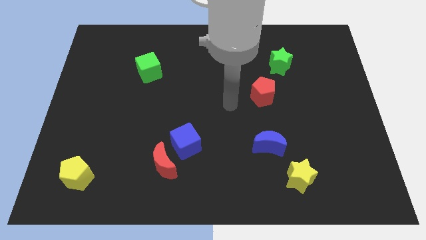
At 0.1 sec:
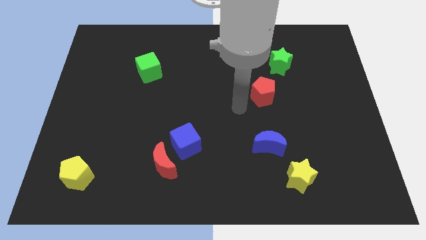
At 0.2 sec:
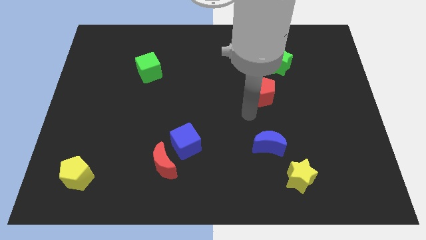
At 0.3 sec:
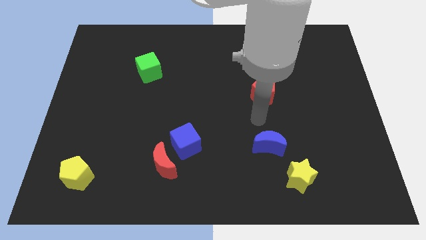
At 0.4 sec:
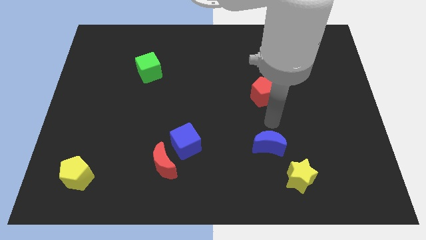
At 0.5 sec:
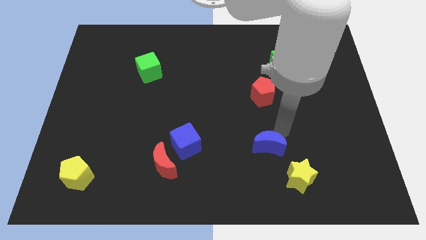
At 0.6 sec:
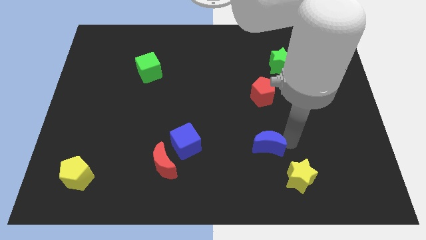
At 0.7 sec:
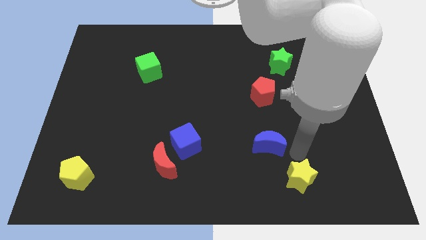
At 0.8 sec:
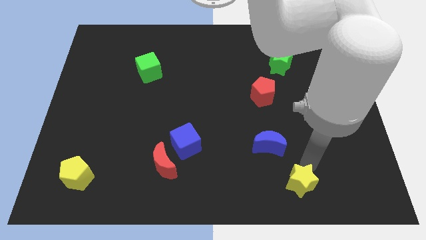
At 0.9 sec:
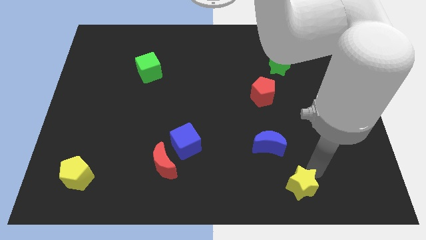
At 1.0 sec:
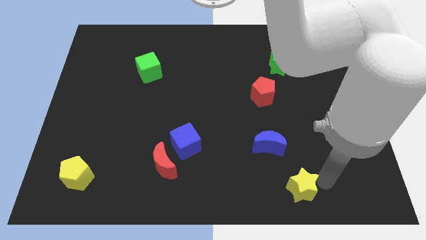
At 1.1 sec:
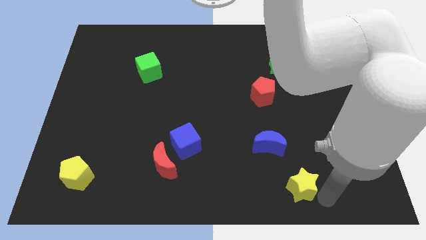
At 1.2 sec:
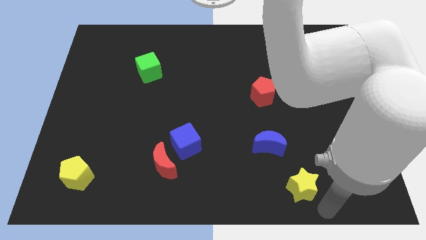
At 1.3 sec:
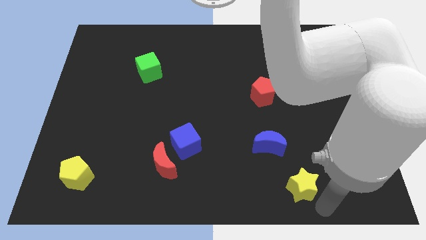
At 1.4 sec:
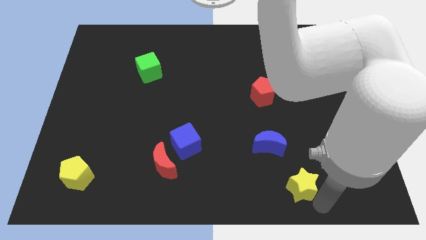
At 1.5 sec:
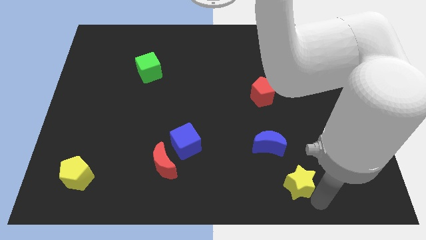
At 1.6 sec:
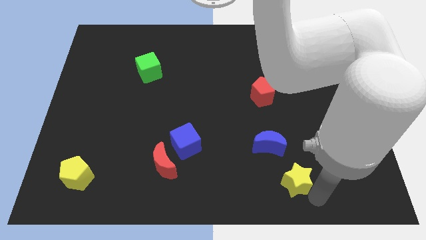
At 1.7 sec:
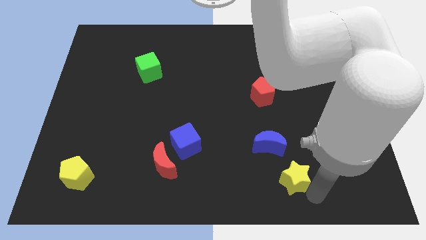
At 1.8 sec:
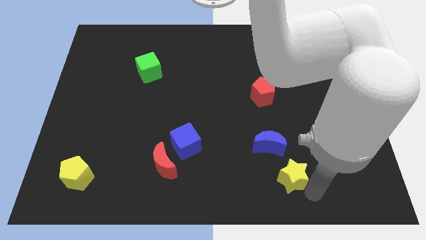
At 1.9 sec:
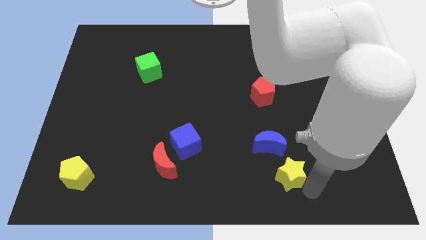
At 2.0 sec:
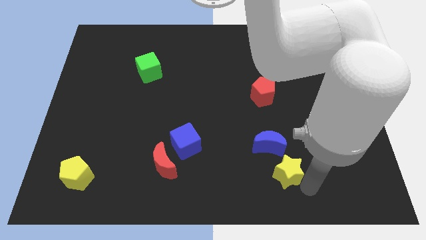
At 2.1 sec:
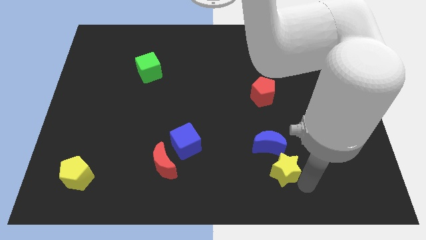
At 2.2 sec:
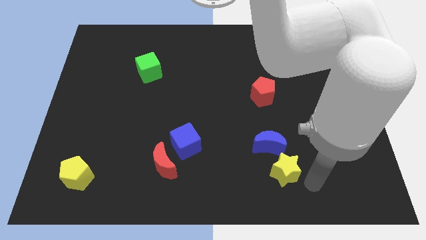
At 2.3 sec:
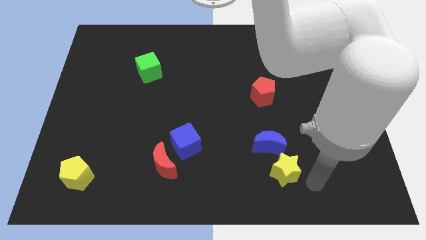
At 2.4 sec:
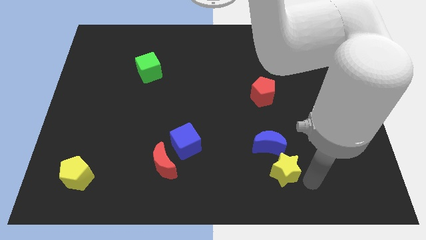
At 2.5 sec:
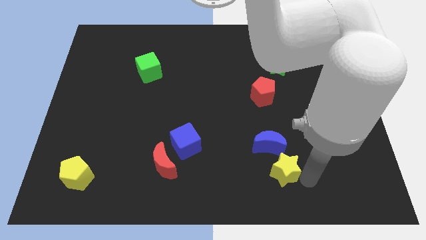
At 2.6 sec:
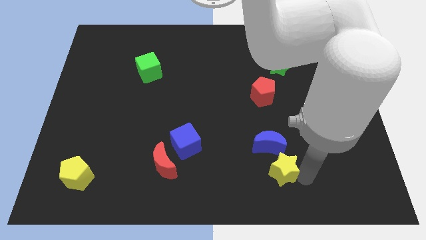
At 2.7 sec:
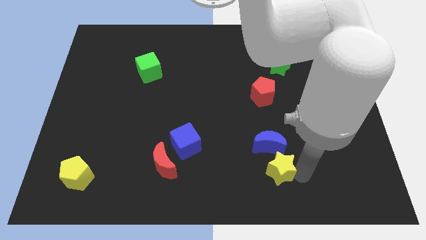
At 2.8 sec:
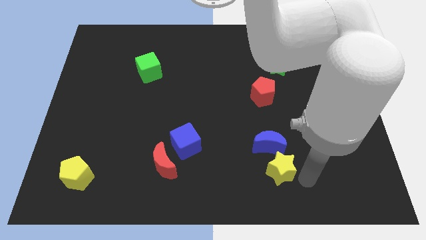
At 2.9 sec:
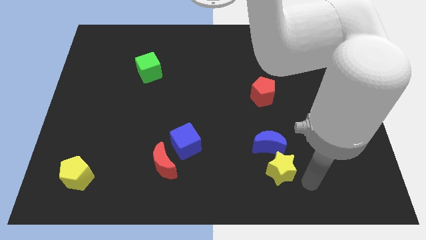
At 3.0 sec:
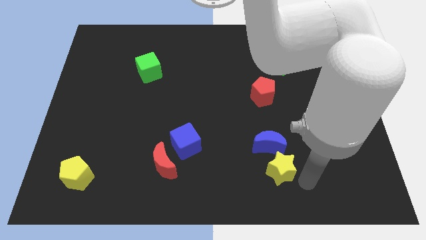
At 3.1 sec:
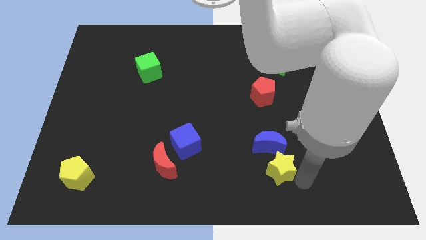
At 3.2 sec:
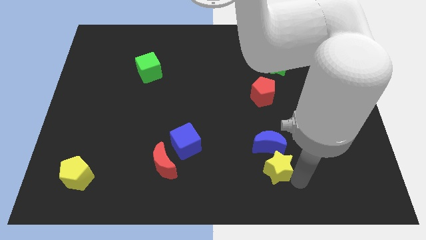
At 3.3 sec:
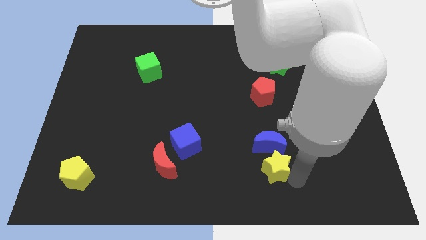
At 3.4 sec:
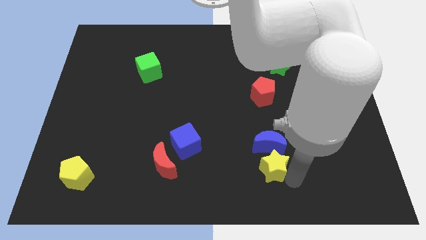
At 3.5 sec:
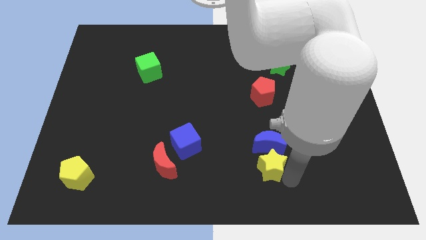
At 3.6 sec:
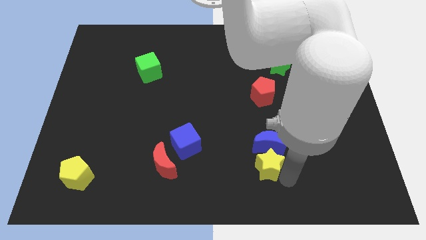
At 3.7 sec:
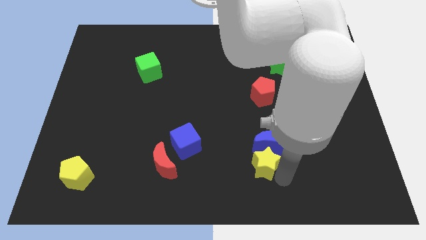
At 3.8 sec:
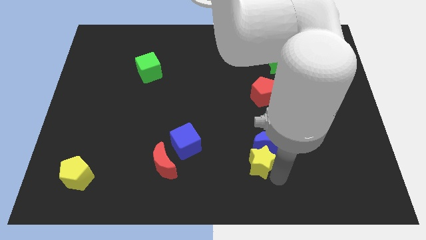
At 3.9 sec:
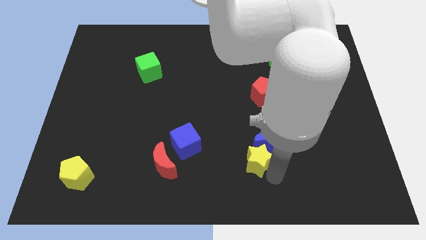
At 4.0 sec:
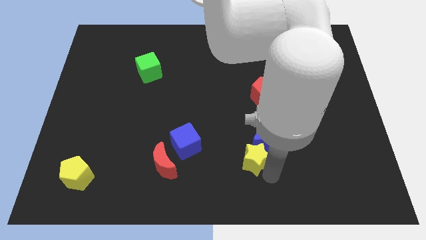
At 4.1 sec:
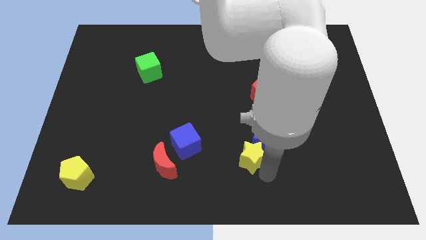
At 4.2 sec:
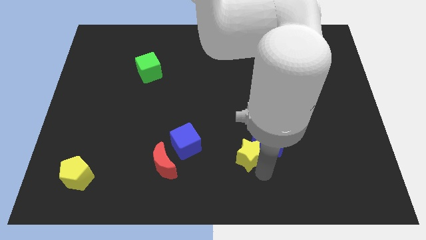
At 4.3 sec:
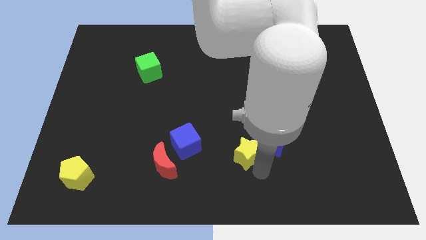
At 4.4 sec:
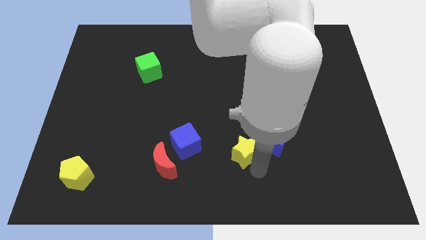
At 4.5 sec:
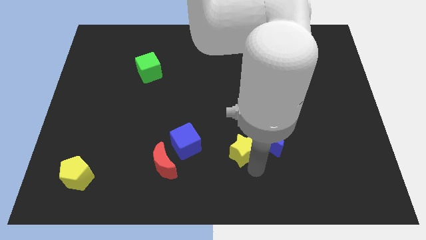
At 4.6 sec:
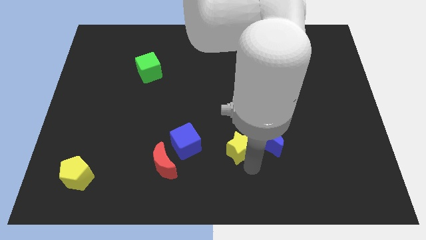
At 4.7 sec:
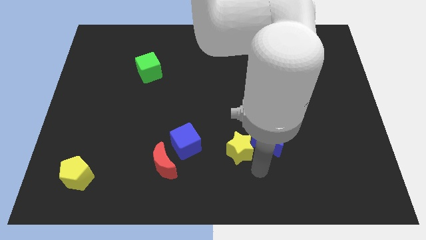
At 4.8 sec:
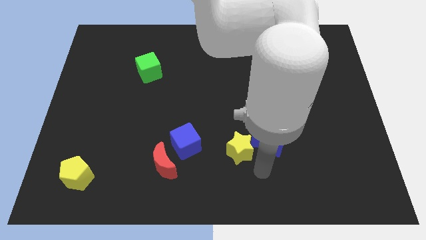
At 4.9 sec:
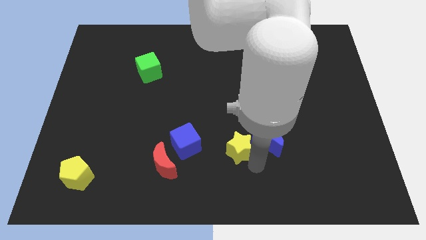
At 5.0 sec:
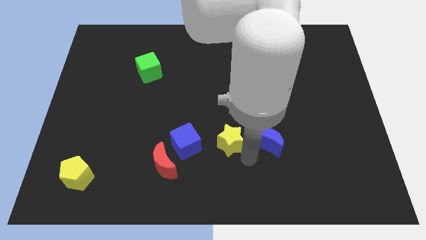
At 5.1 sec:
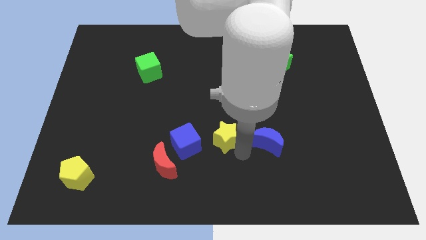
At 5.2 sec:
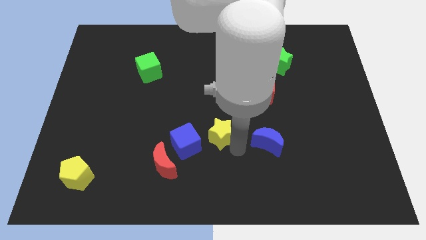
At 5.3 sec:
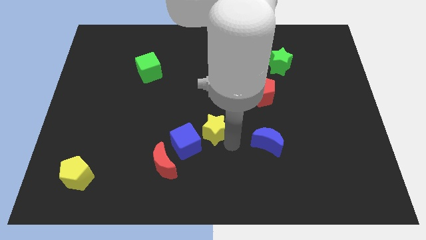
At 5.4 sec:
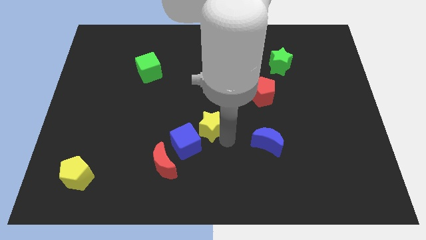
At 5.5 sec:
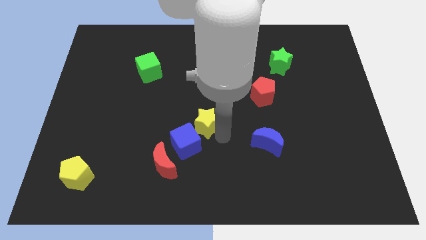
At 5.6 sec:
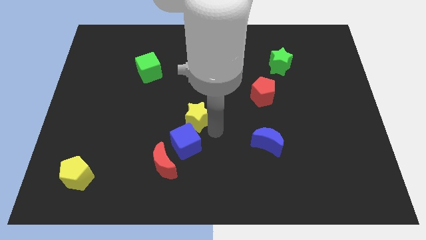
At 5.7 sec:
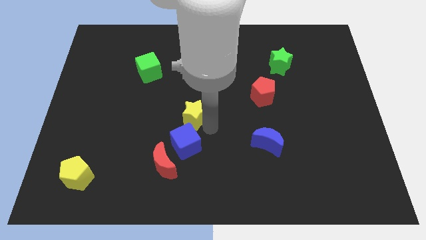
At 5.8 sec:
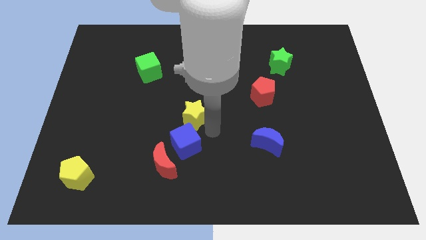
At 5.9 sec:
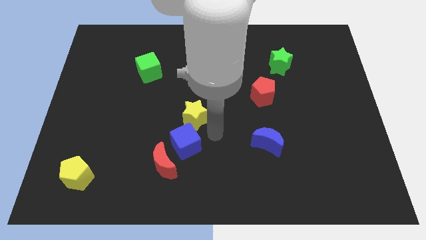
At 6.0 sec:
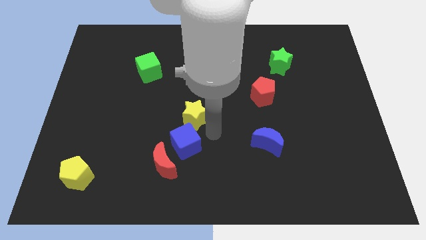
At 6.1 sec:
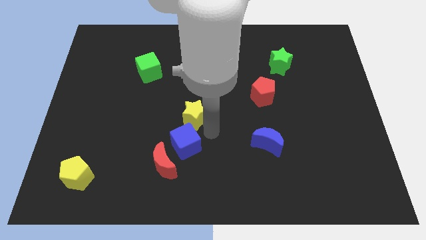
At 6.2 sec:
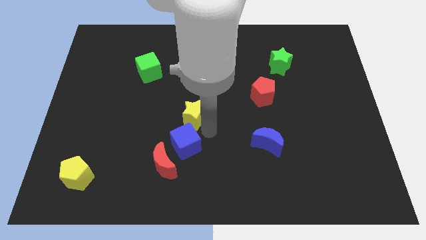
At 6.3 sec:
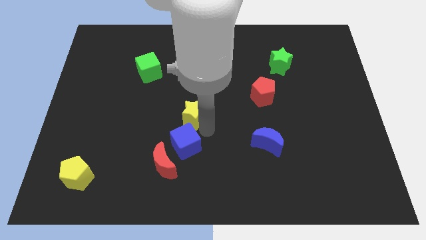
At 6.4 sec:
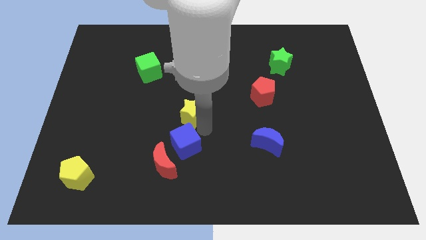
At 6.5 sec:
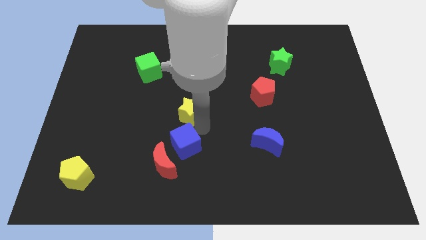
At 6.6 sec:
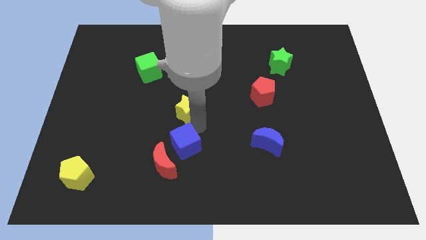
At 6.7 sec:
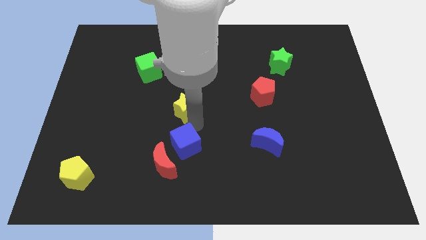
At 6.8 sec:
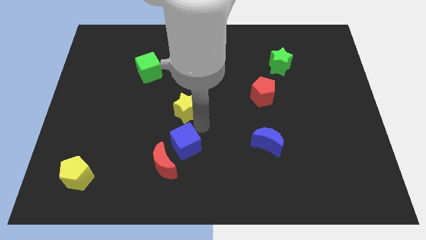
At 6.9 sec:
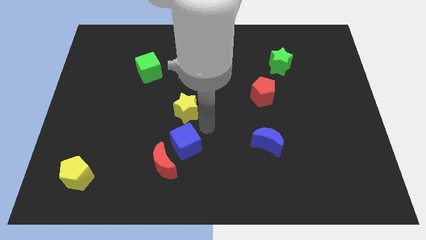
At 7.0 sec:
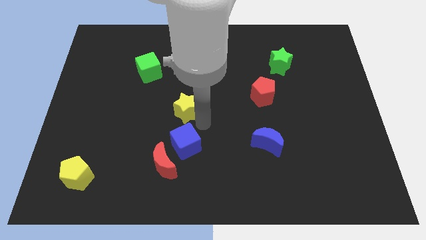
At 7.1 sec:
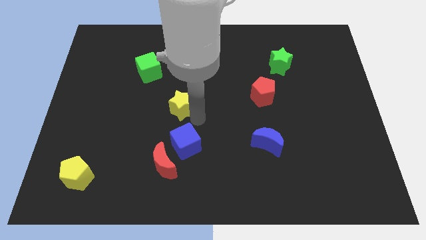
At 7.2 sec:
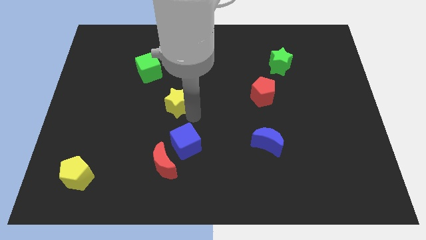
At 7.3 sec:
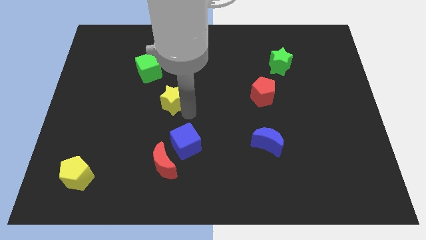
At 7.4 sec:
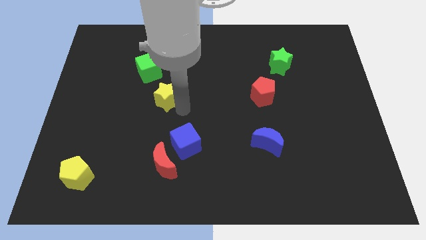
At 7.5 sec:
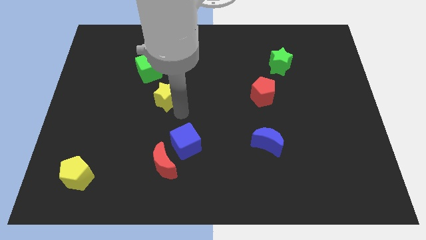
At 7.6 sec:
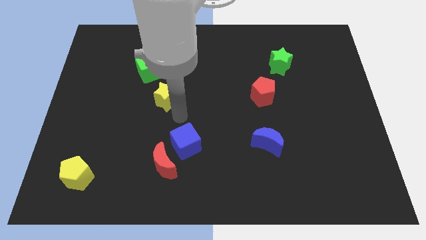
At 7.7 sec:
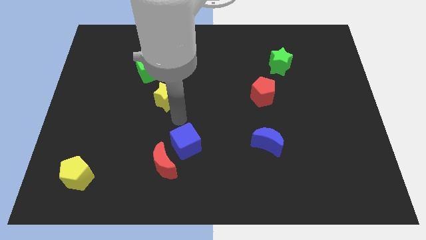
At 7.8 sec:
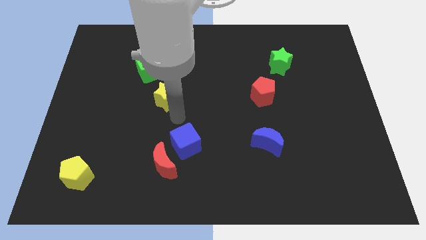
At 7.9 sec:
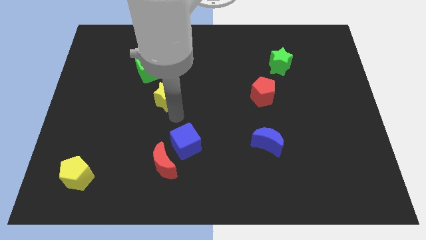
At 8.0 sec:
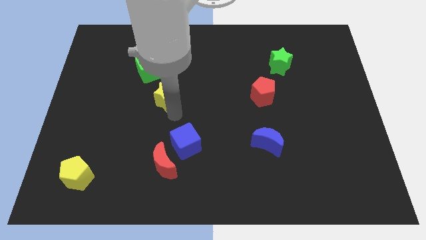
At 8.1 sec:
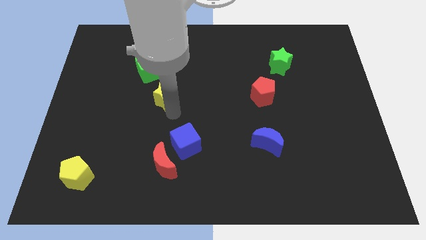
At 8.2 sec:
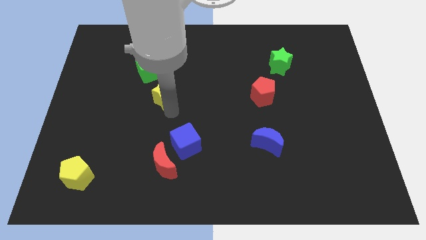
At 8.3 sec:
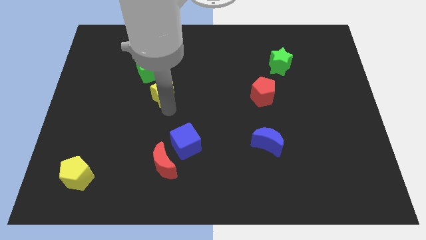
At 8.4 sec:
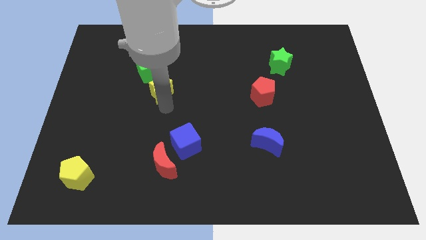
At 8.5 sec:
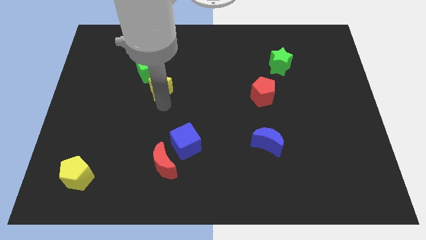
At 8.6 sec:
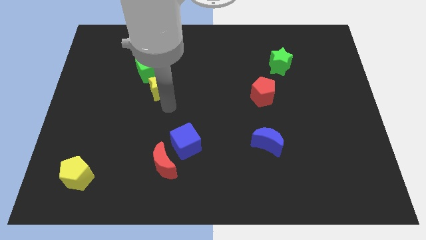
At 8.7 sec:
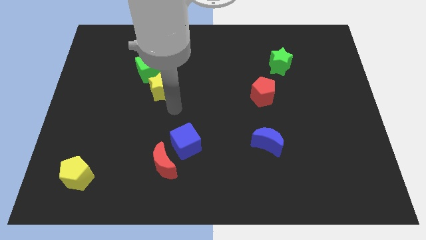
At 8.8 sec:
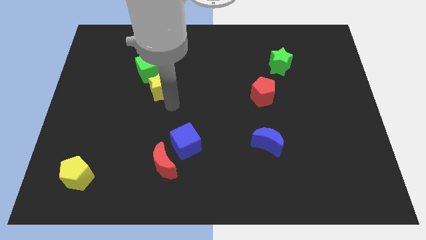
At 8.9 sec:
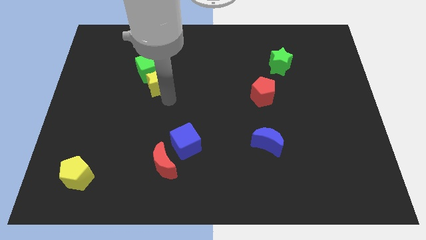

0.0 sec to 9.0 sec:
slide the yellow star towards the green cube
